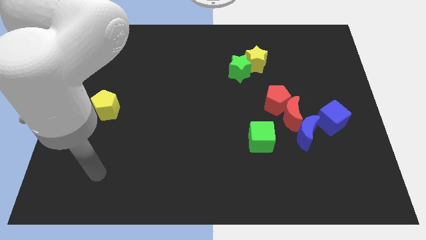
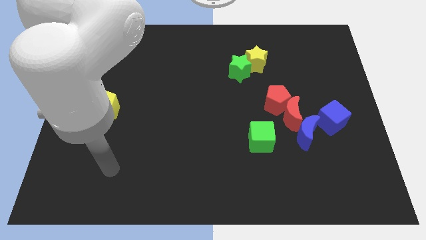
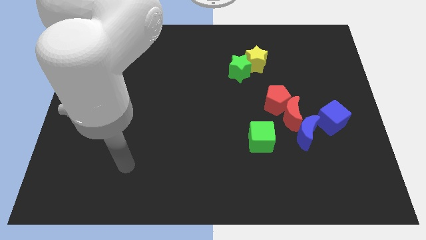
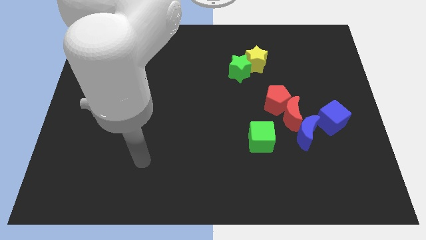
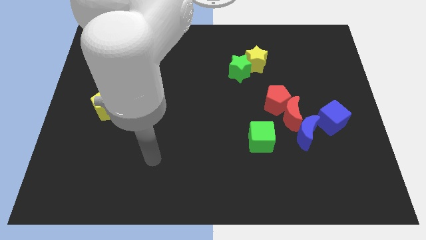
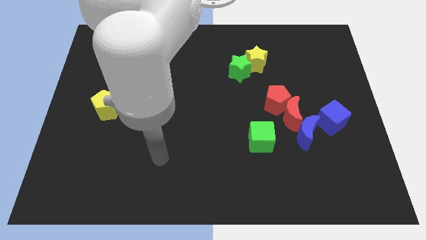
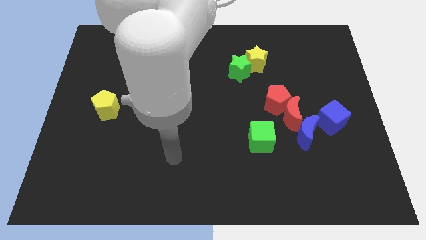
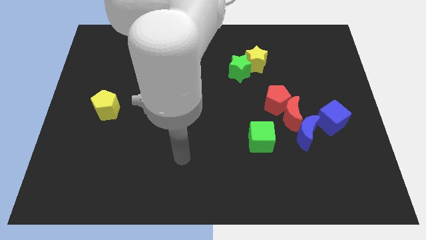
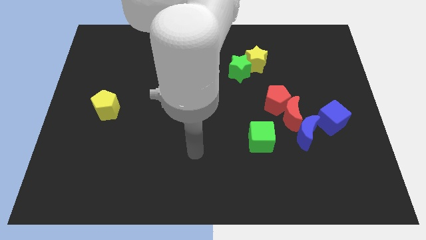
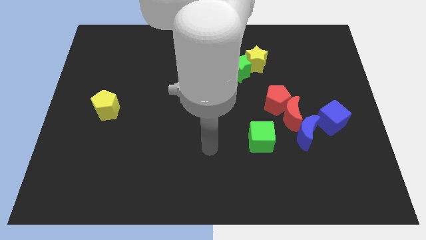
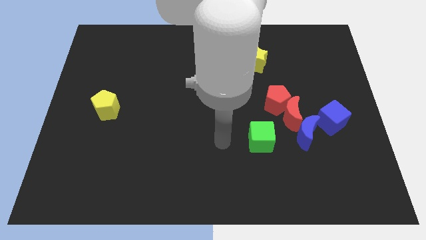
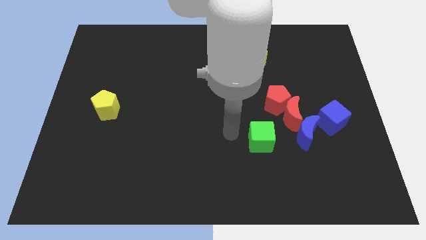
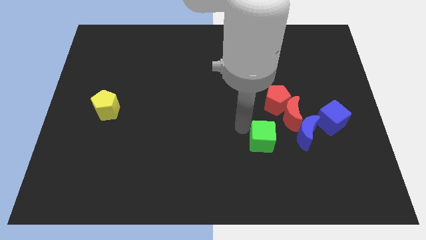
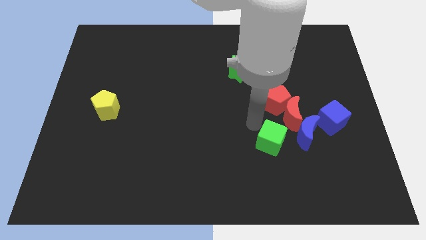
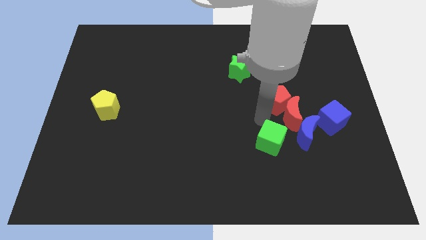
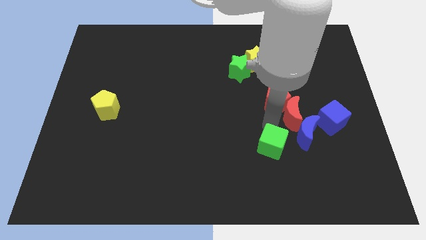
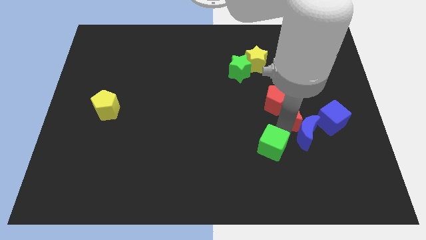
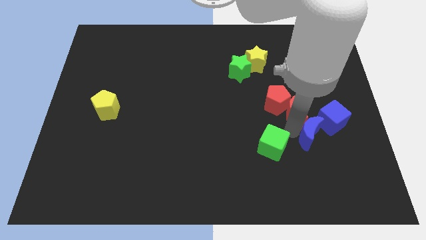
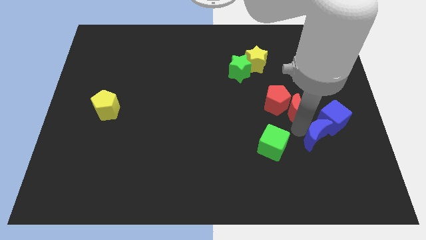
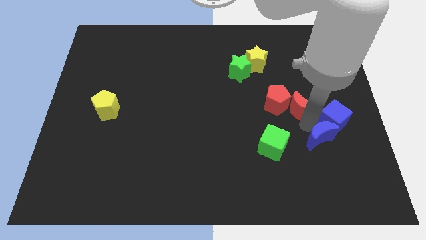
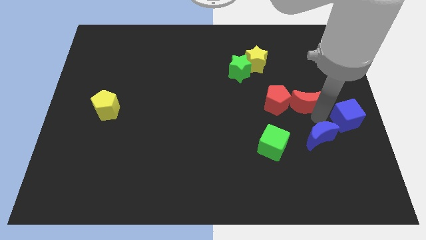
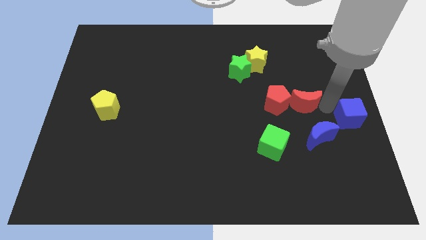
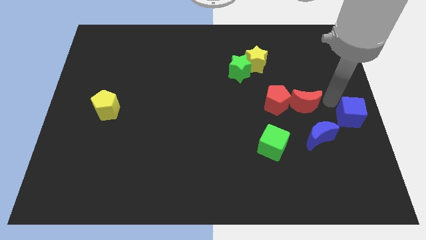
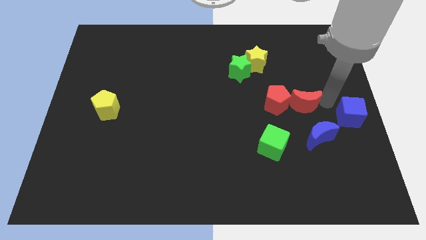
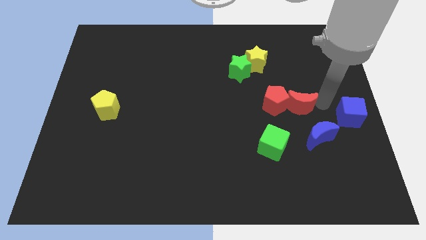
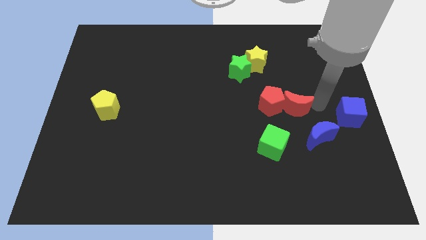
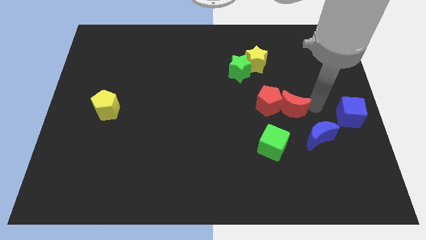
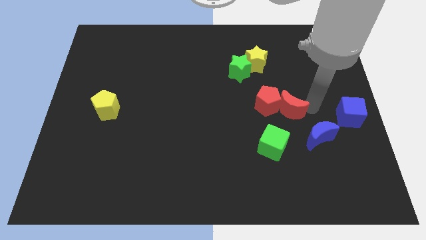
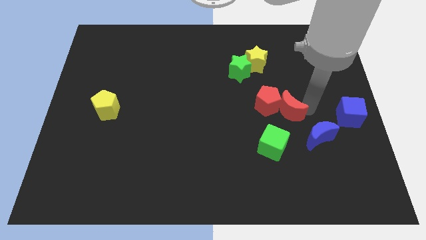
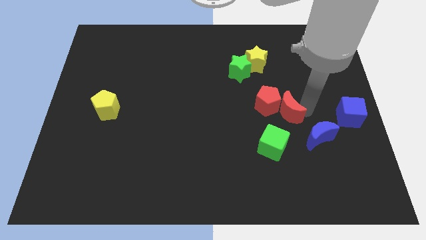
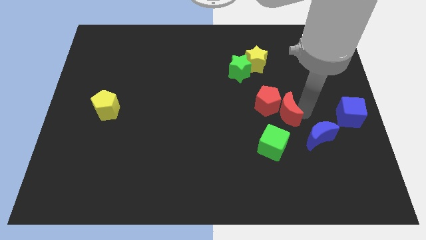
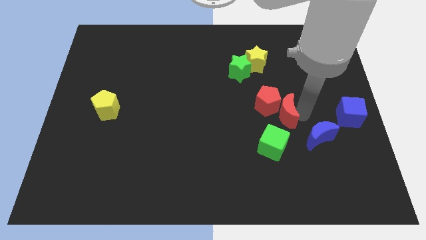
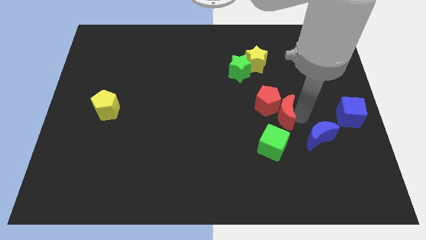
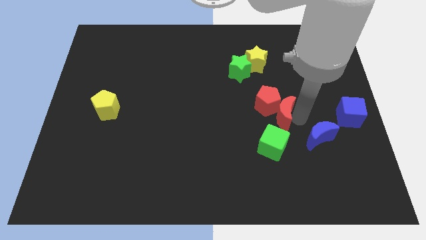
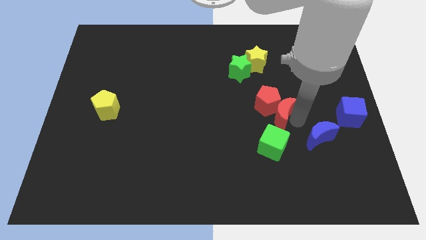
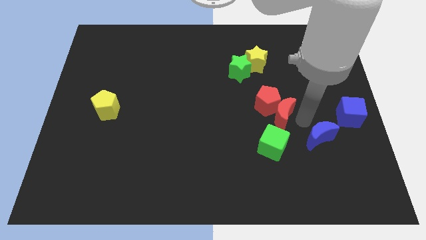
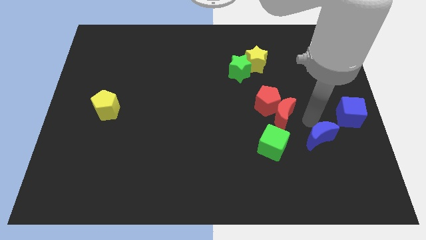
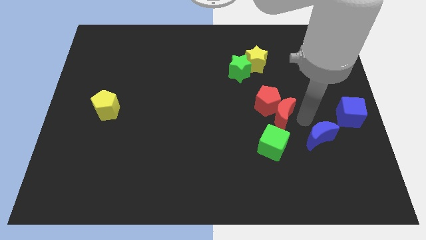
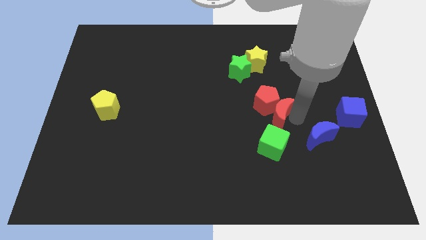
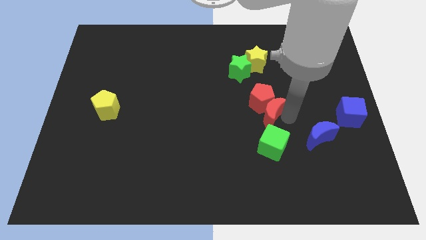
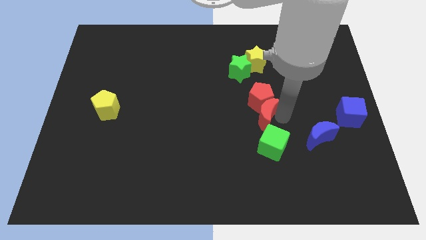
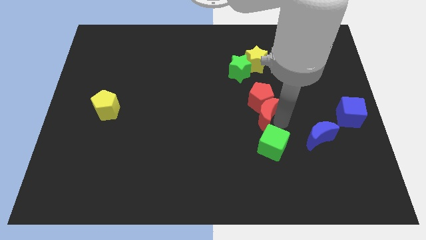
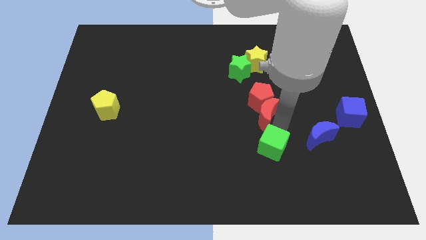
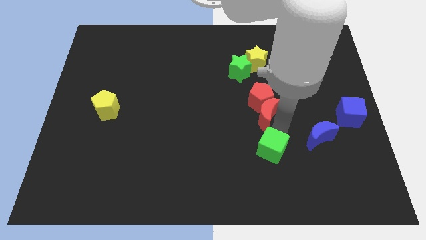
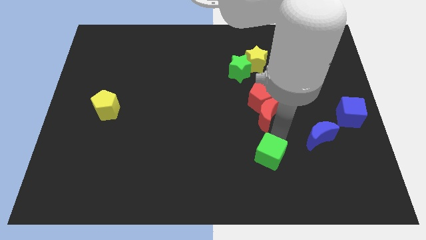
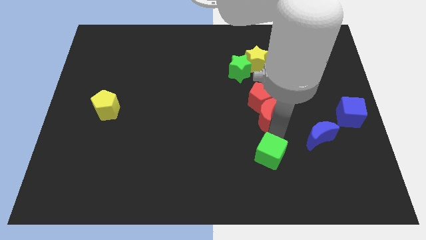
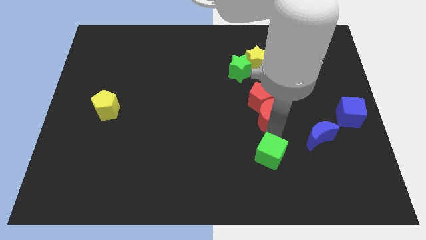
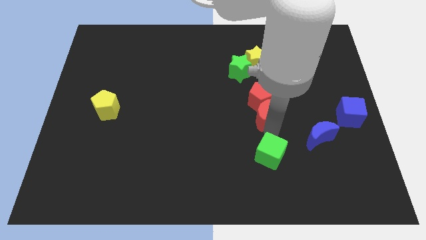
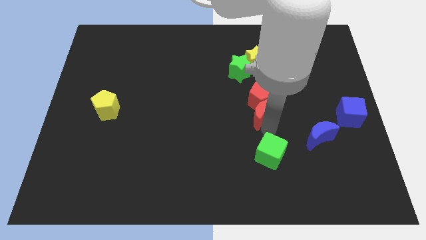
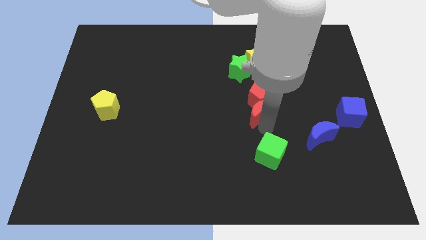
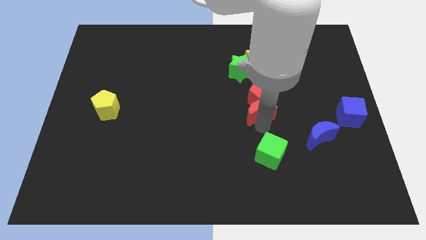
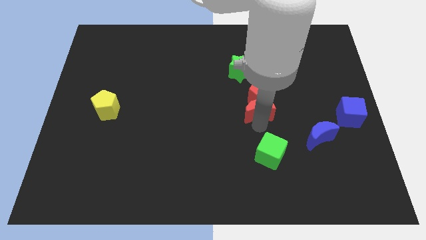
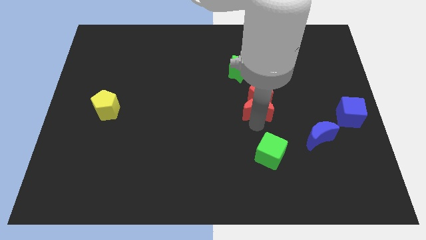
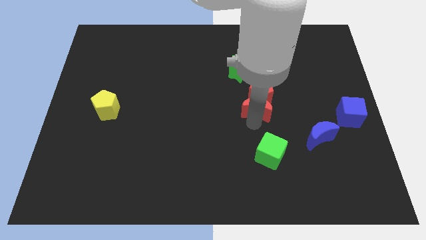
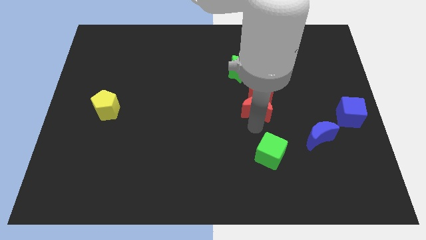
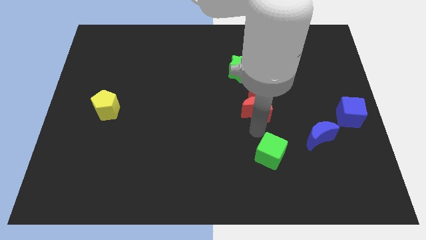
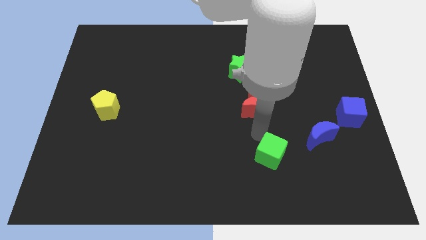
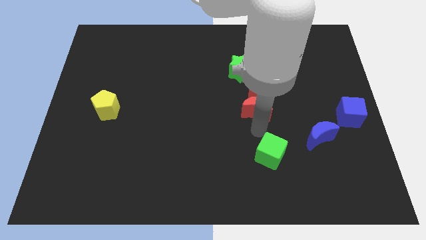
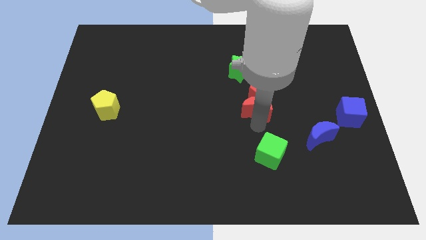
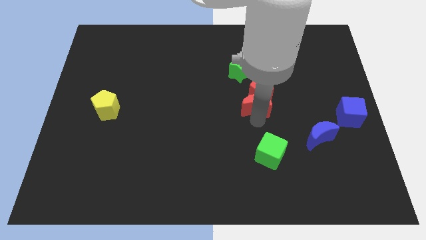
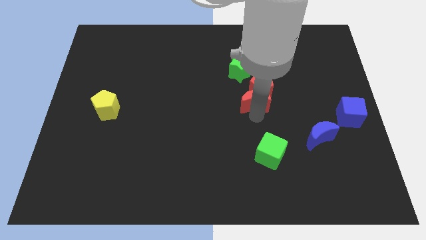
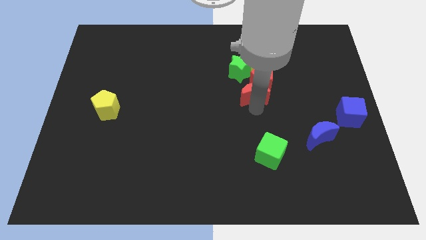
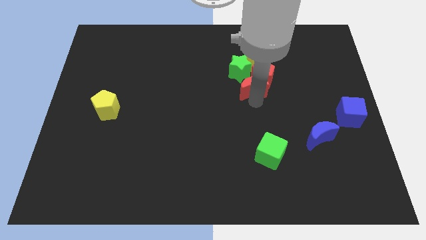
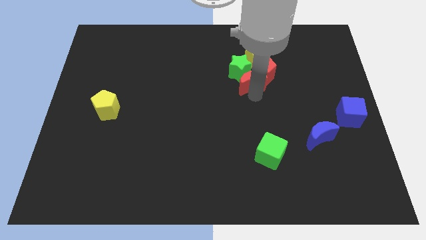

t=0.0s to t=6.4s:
move the red moon to the green star
